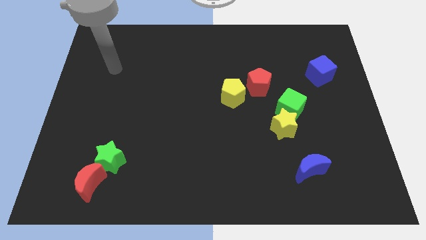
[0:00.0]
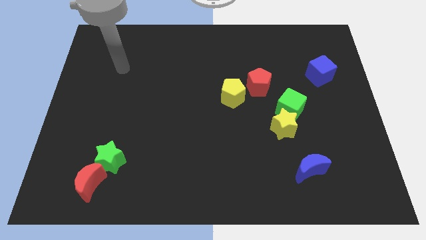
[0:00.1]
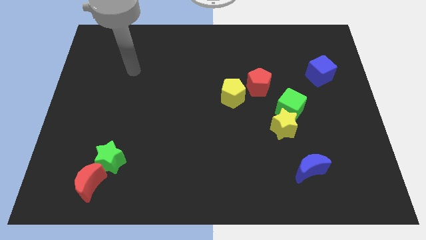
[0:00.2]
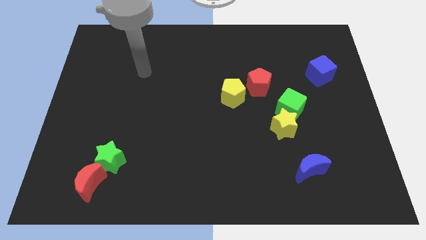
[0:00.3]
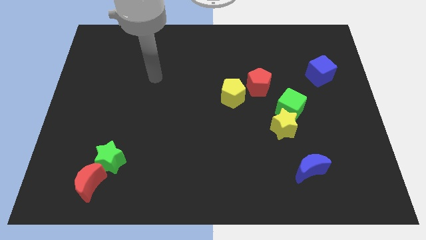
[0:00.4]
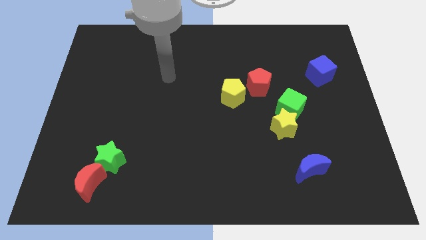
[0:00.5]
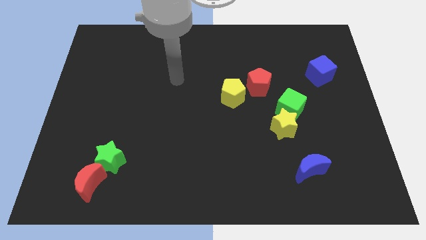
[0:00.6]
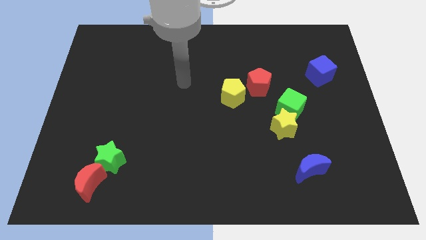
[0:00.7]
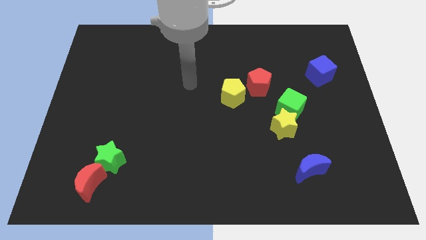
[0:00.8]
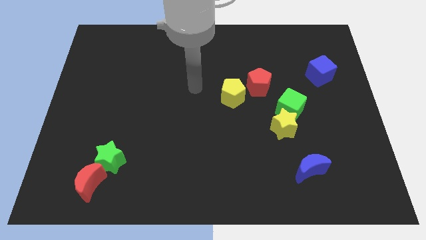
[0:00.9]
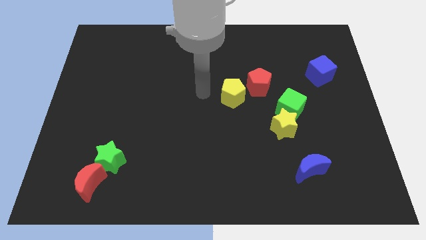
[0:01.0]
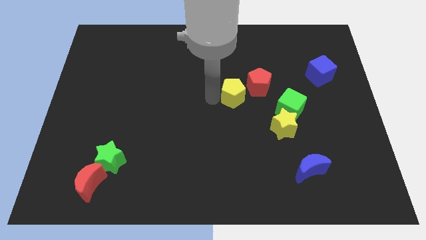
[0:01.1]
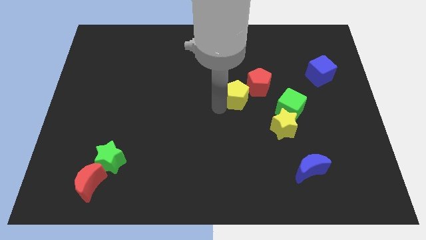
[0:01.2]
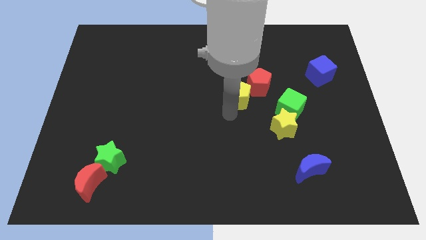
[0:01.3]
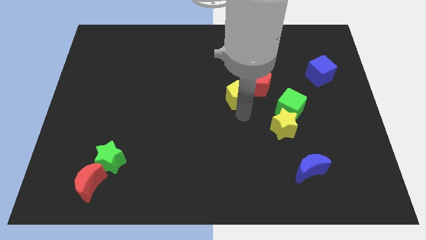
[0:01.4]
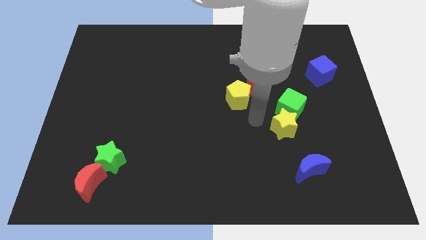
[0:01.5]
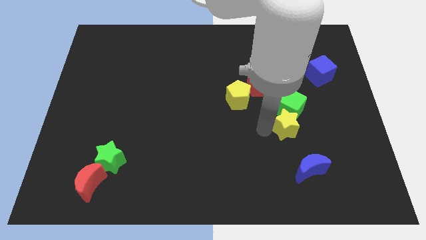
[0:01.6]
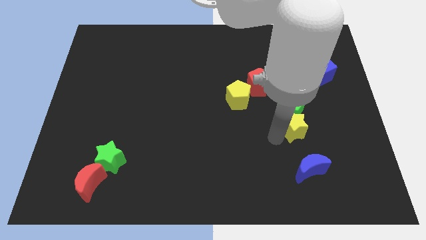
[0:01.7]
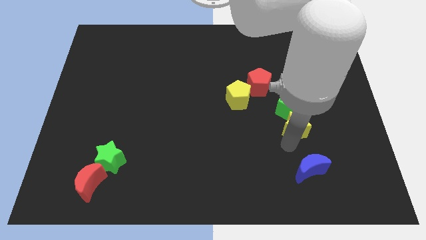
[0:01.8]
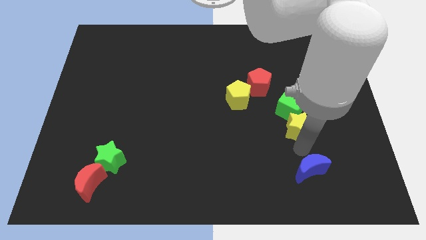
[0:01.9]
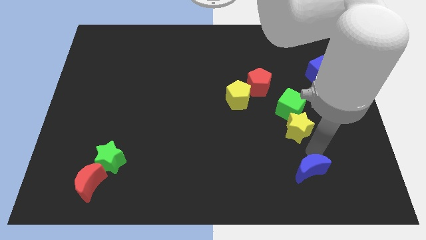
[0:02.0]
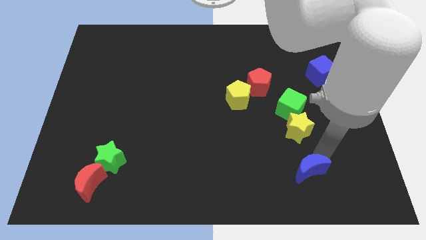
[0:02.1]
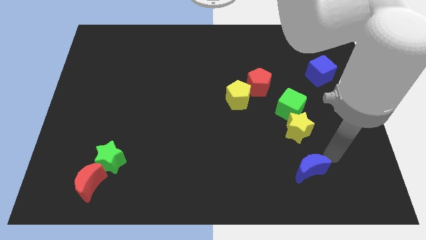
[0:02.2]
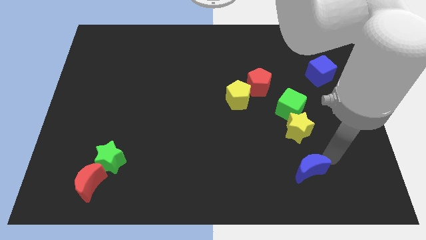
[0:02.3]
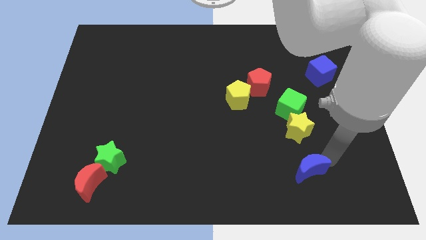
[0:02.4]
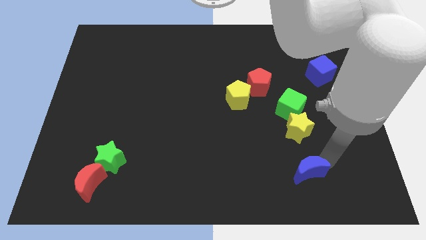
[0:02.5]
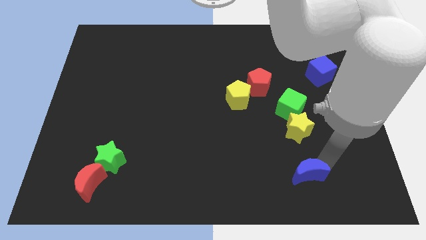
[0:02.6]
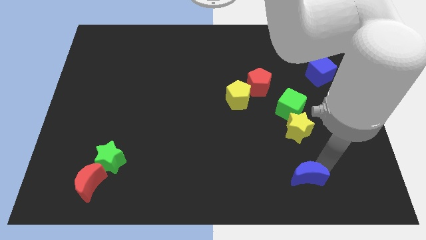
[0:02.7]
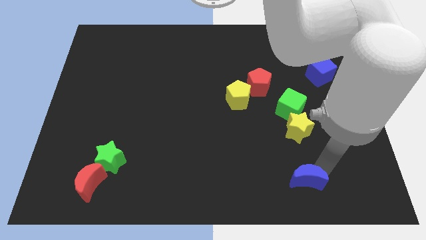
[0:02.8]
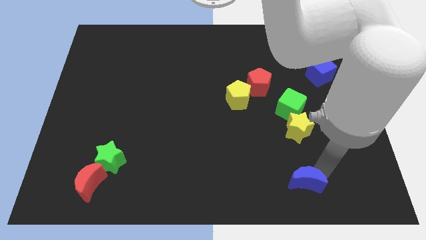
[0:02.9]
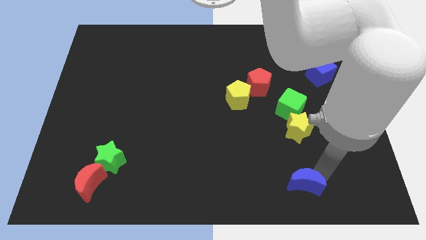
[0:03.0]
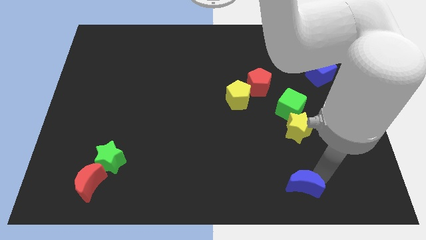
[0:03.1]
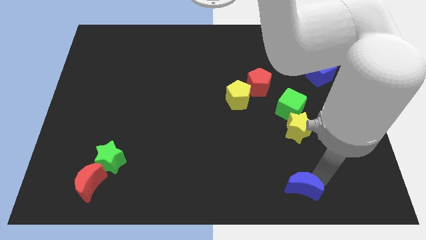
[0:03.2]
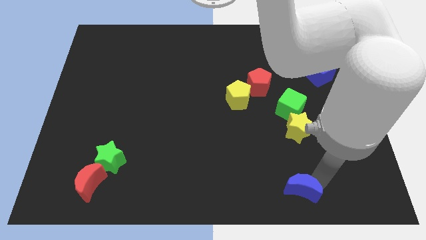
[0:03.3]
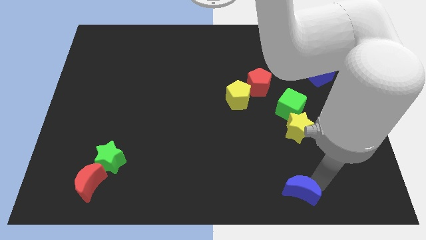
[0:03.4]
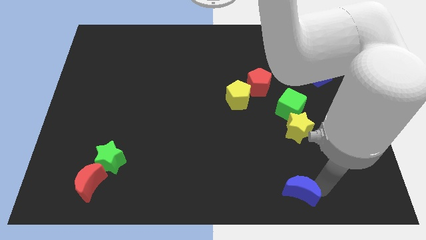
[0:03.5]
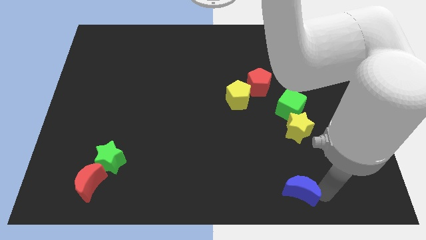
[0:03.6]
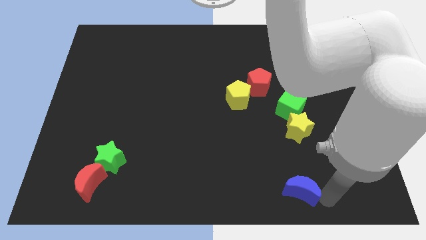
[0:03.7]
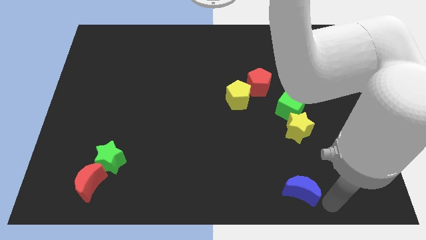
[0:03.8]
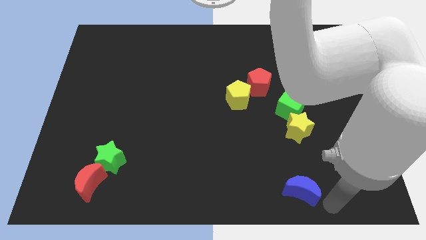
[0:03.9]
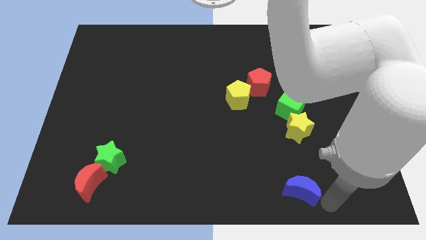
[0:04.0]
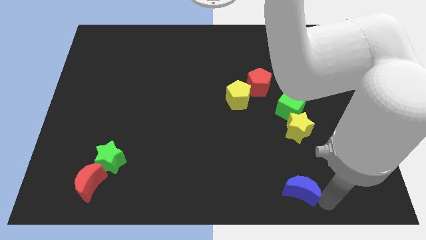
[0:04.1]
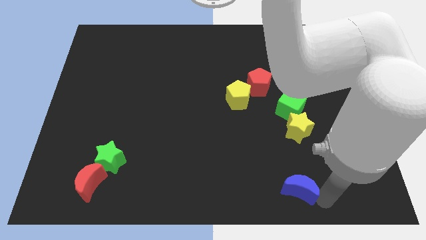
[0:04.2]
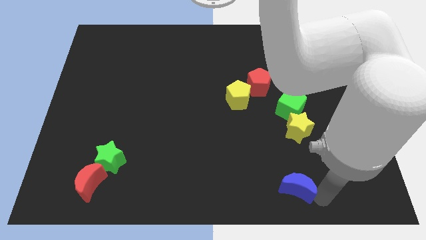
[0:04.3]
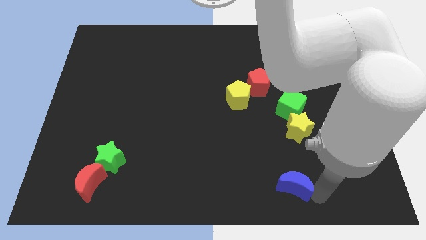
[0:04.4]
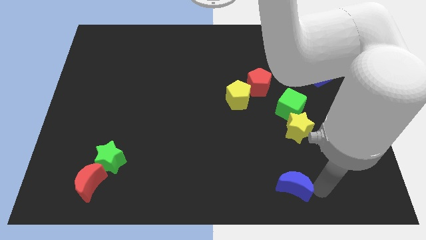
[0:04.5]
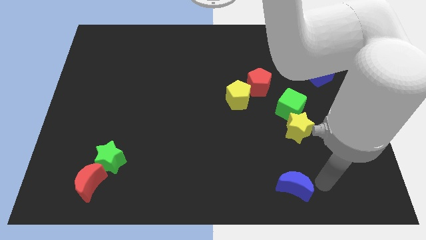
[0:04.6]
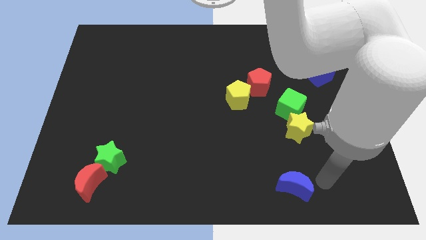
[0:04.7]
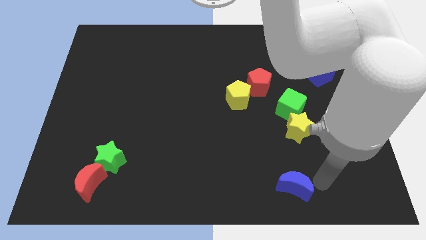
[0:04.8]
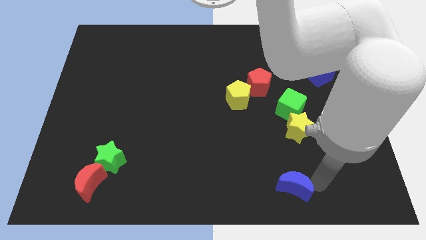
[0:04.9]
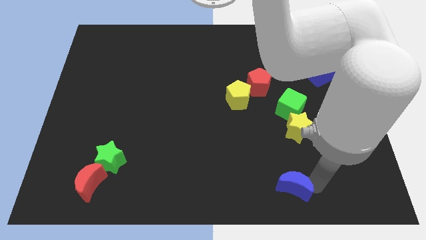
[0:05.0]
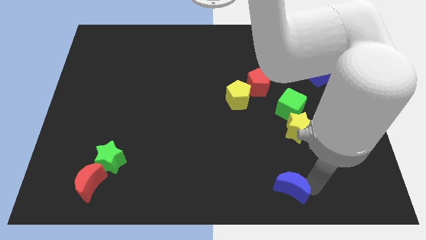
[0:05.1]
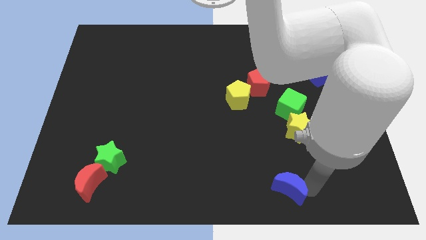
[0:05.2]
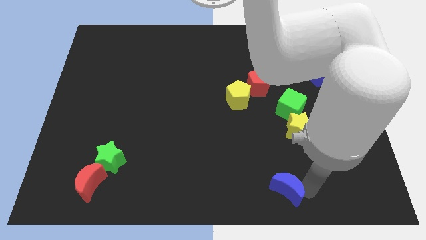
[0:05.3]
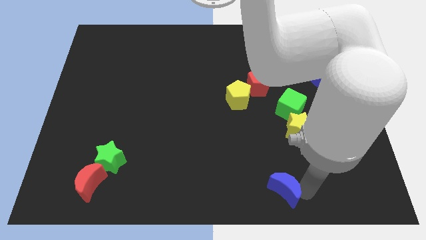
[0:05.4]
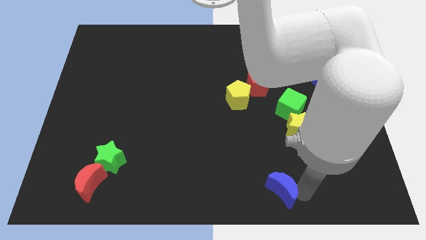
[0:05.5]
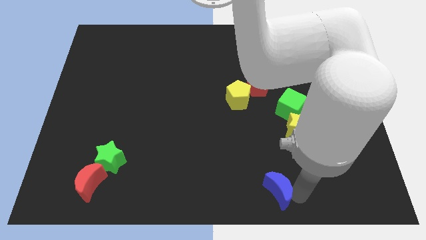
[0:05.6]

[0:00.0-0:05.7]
put the blue moon to the bottom side

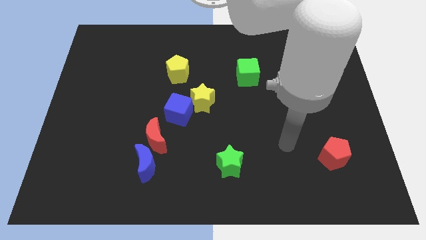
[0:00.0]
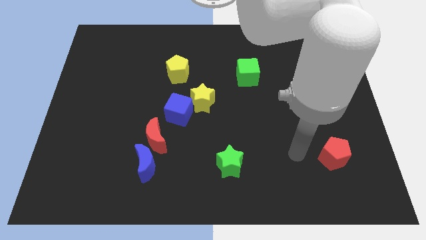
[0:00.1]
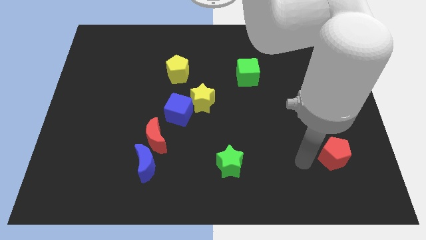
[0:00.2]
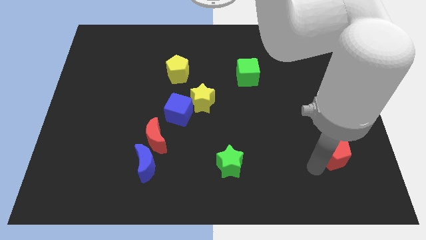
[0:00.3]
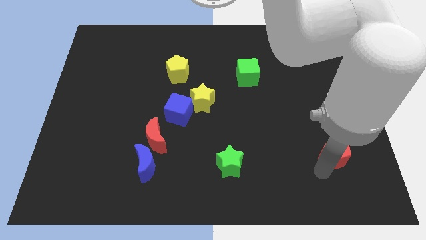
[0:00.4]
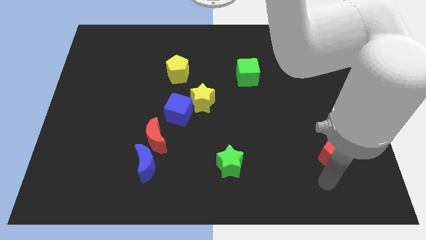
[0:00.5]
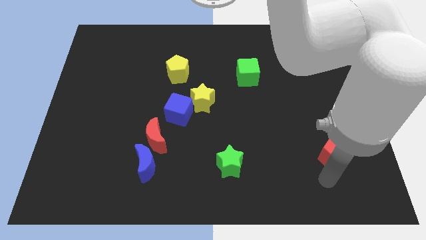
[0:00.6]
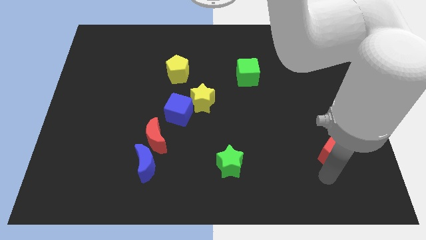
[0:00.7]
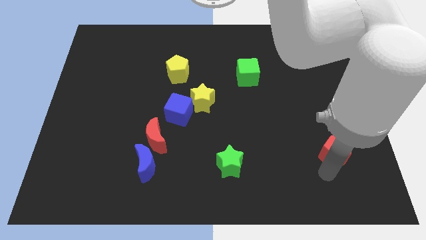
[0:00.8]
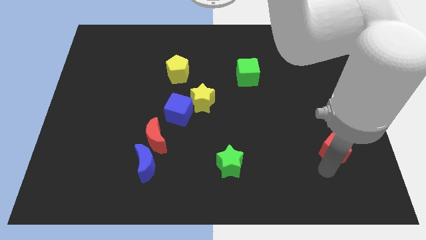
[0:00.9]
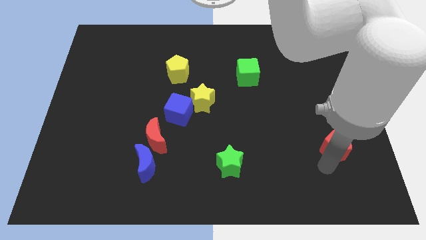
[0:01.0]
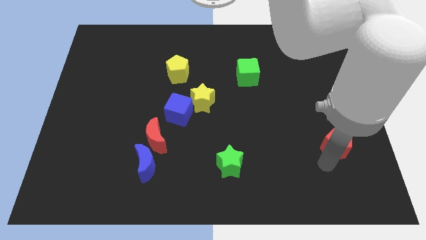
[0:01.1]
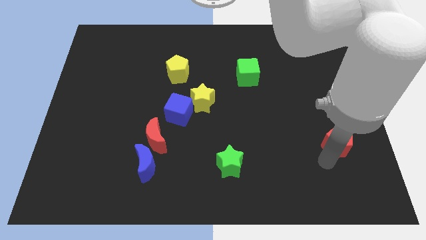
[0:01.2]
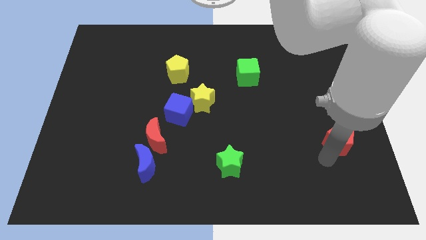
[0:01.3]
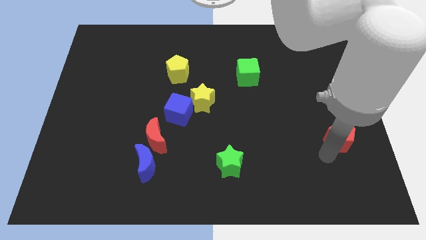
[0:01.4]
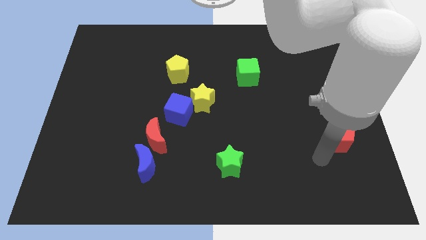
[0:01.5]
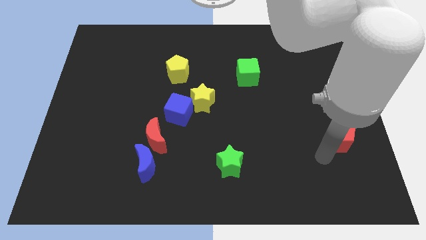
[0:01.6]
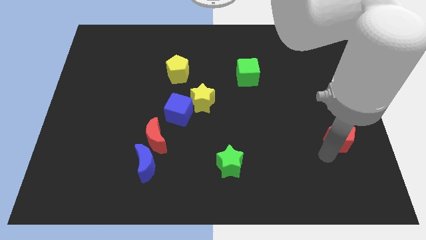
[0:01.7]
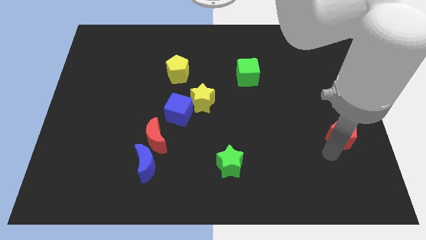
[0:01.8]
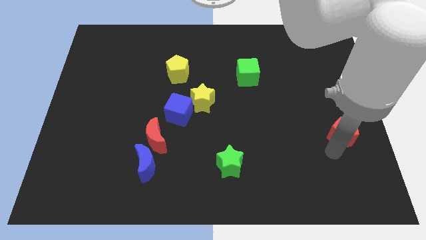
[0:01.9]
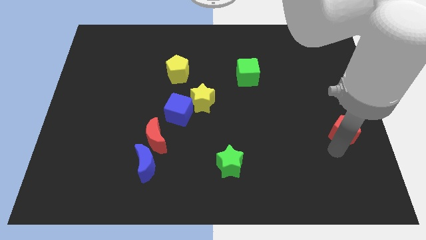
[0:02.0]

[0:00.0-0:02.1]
move the red pentagon to the right side
